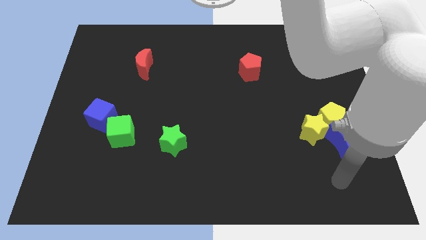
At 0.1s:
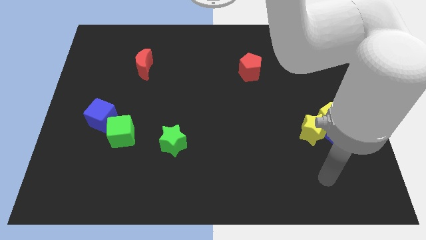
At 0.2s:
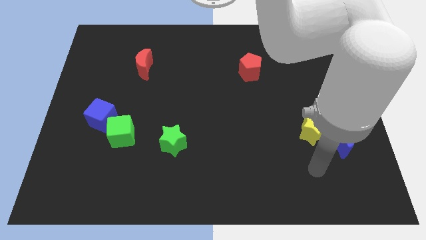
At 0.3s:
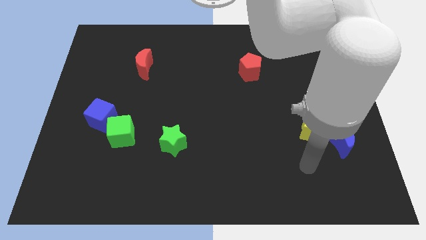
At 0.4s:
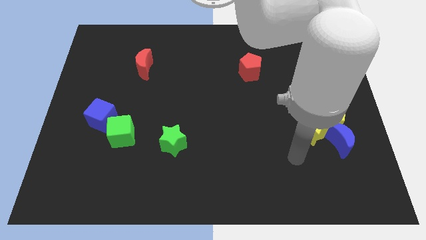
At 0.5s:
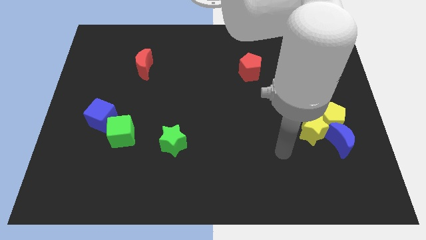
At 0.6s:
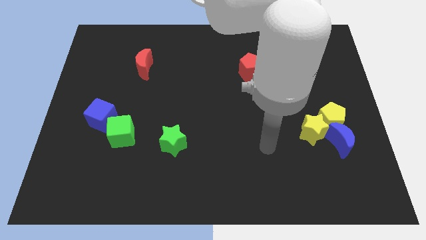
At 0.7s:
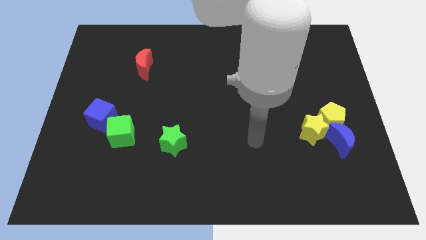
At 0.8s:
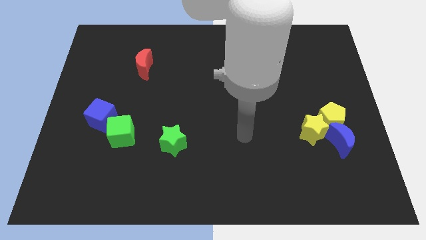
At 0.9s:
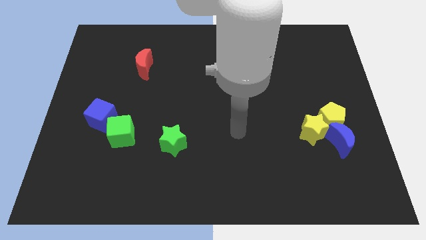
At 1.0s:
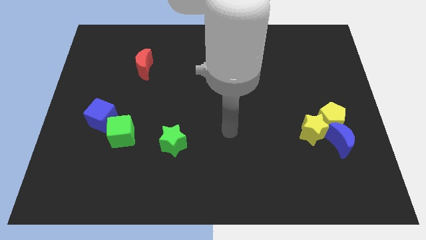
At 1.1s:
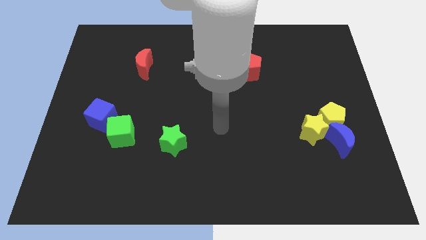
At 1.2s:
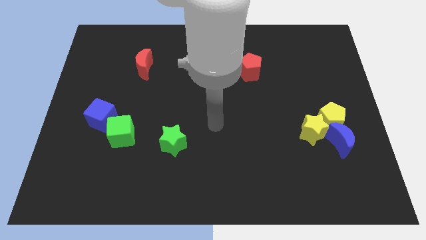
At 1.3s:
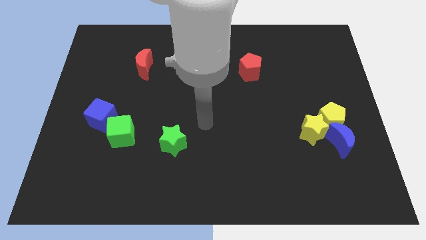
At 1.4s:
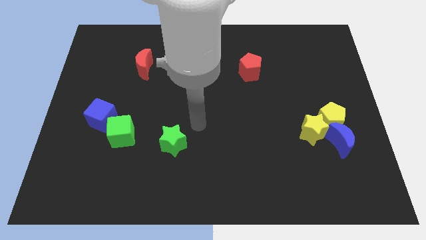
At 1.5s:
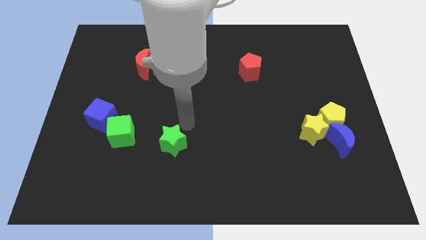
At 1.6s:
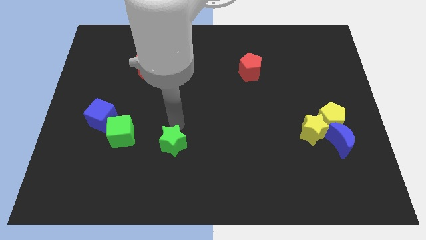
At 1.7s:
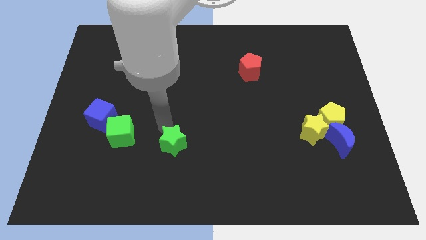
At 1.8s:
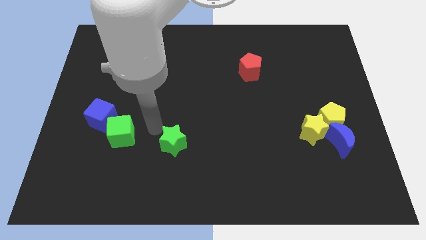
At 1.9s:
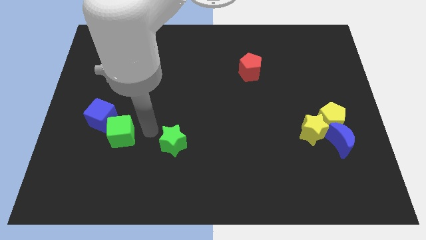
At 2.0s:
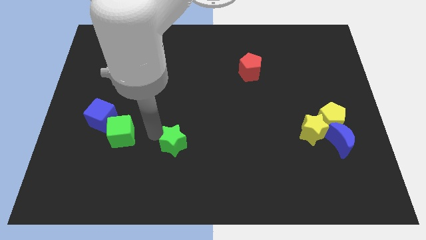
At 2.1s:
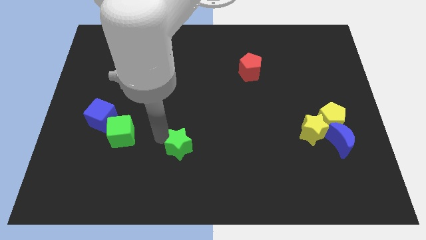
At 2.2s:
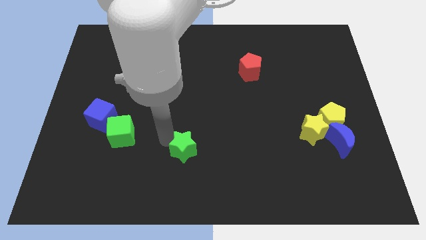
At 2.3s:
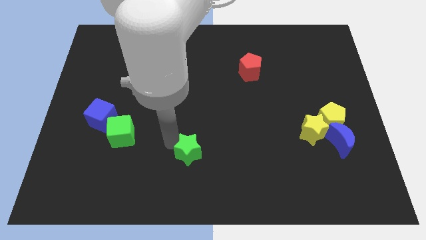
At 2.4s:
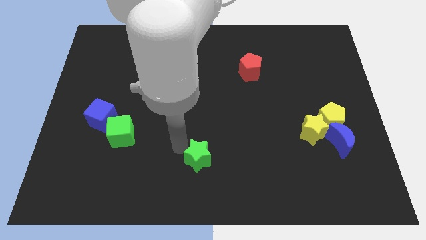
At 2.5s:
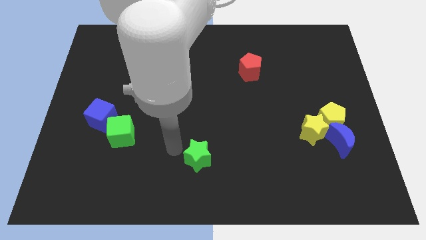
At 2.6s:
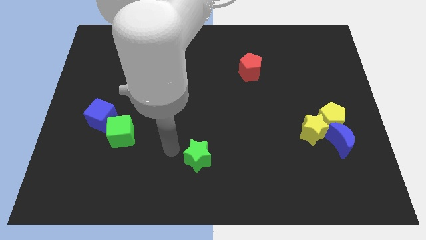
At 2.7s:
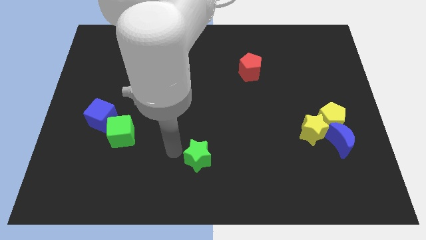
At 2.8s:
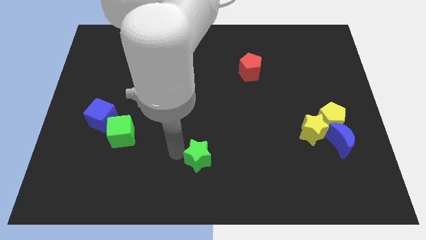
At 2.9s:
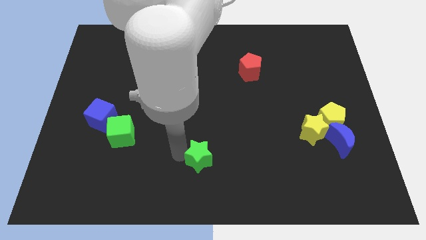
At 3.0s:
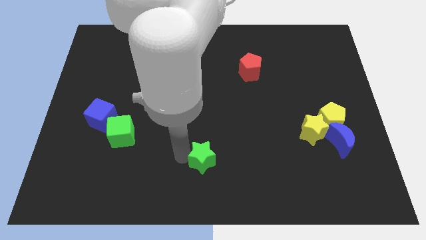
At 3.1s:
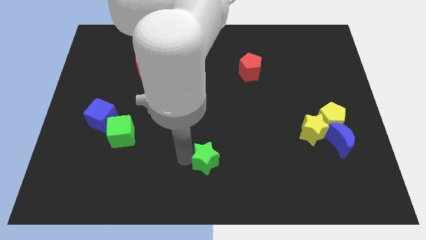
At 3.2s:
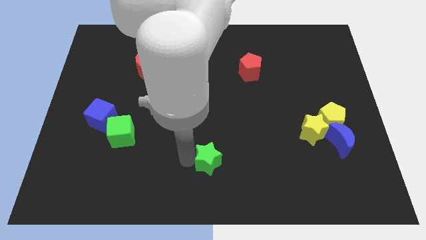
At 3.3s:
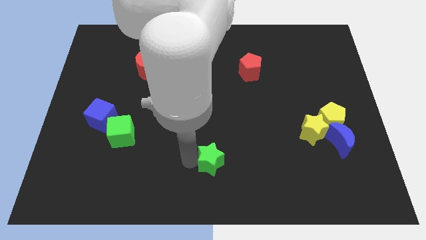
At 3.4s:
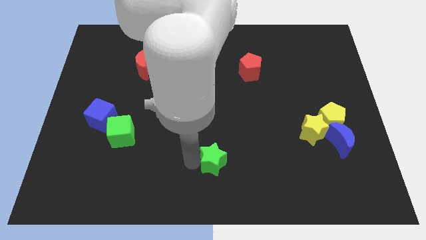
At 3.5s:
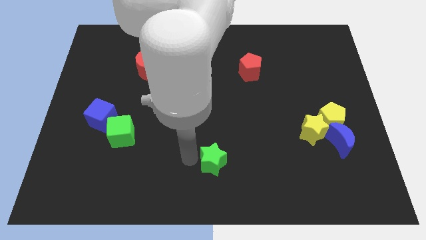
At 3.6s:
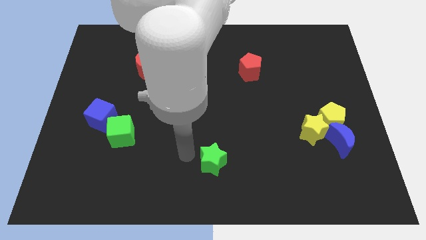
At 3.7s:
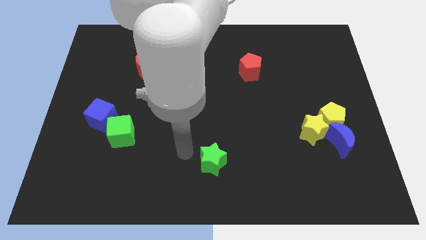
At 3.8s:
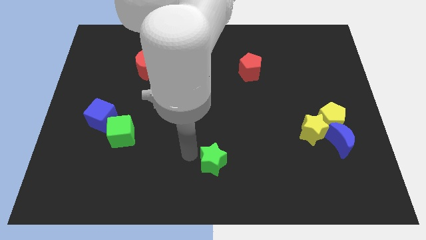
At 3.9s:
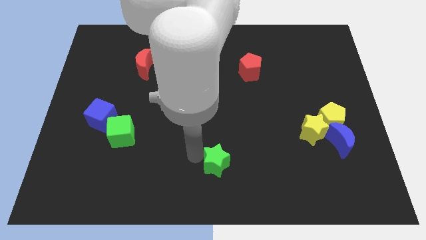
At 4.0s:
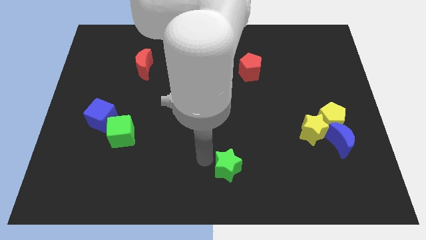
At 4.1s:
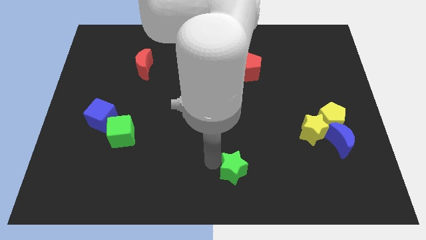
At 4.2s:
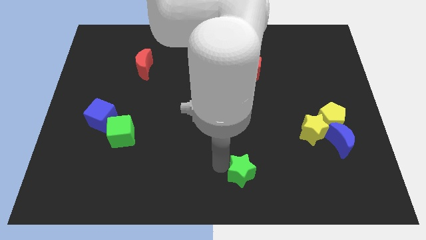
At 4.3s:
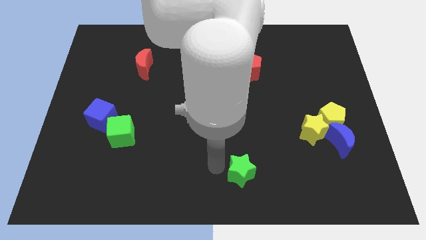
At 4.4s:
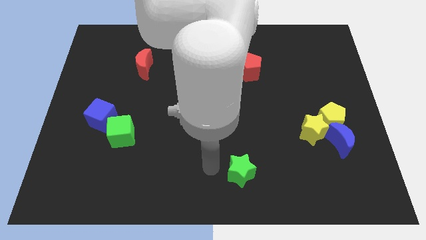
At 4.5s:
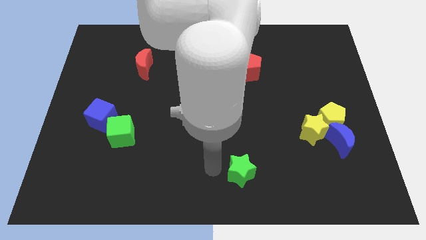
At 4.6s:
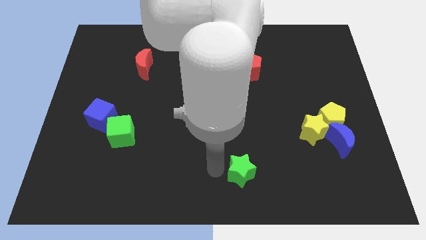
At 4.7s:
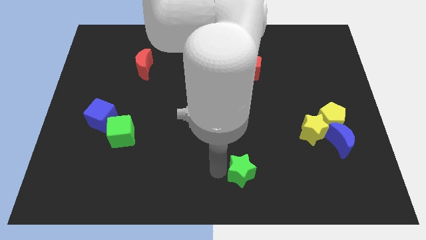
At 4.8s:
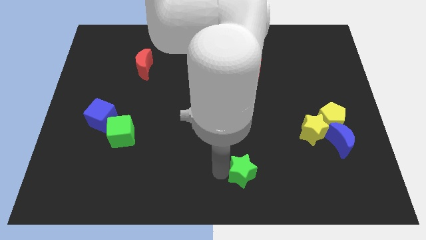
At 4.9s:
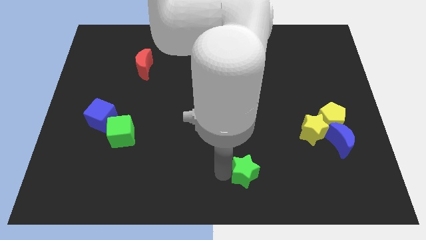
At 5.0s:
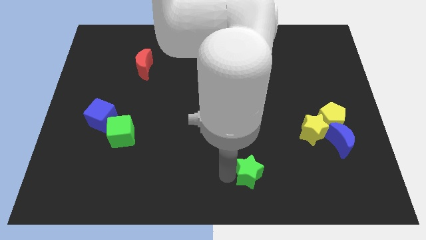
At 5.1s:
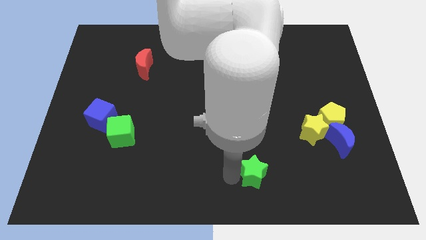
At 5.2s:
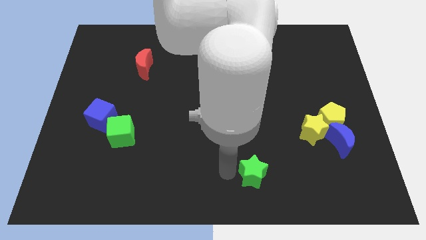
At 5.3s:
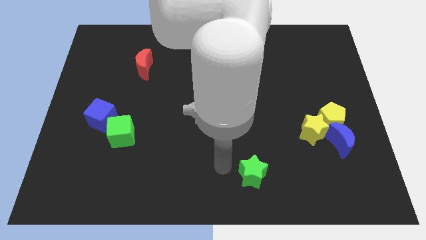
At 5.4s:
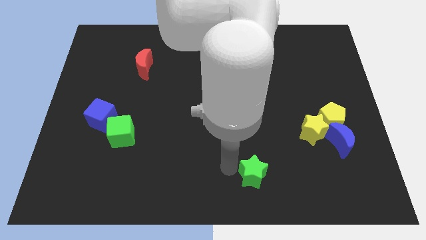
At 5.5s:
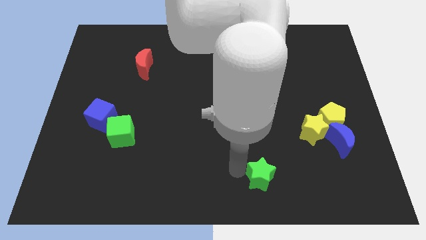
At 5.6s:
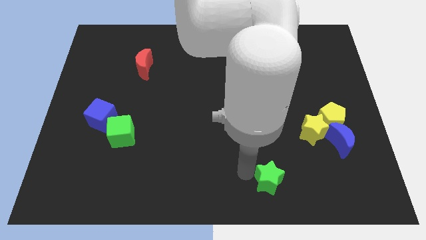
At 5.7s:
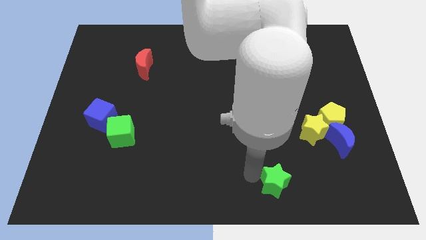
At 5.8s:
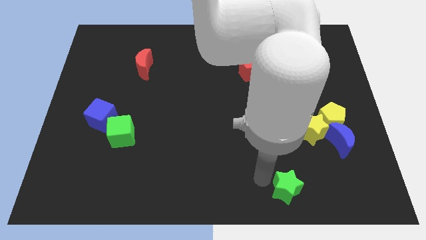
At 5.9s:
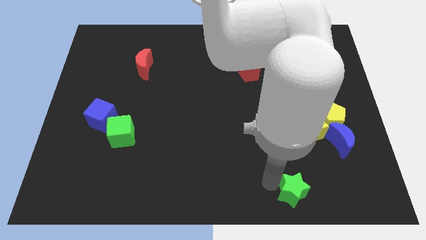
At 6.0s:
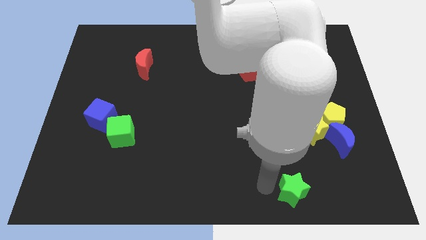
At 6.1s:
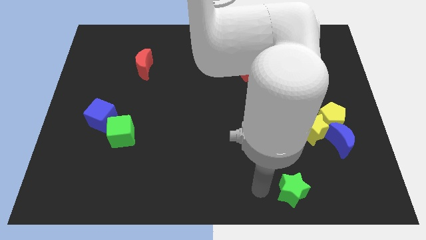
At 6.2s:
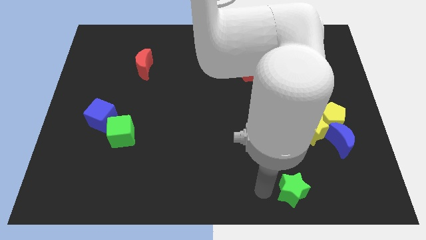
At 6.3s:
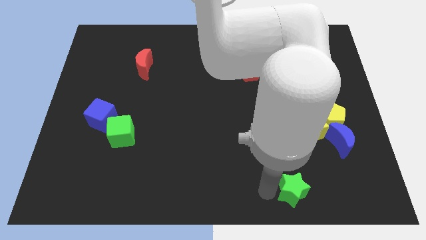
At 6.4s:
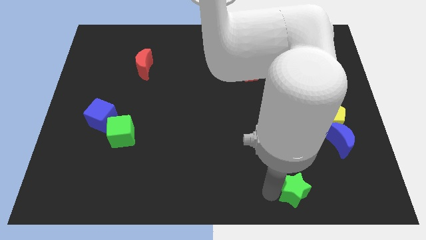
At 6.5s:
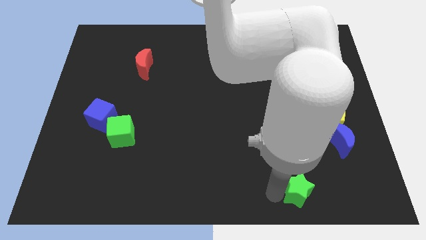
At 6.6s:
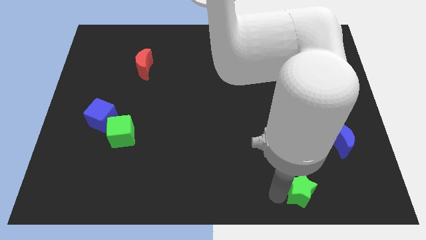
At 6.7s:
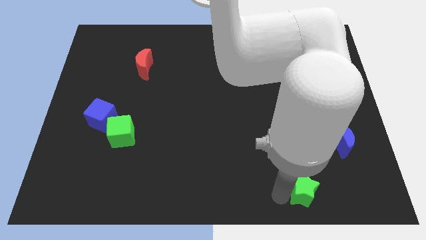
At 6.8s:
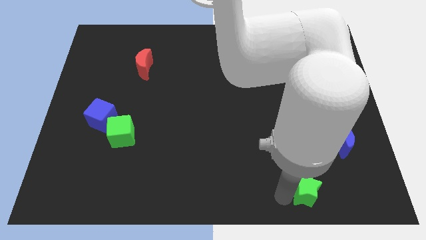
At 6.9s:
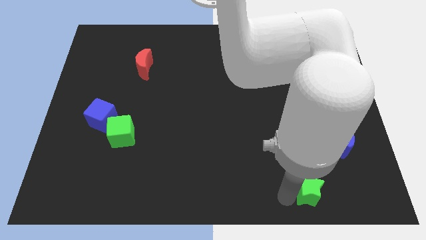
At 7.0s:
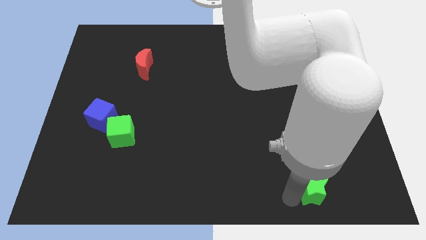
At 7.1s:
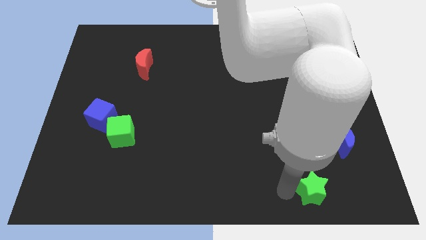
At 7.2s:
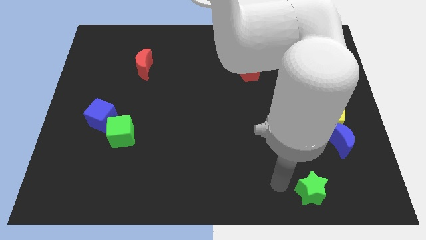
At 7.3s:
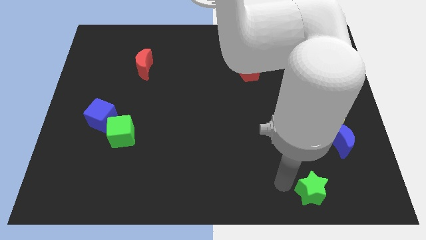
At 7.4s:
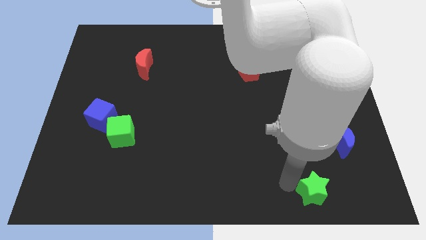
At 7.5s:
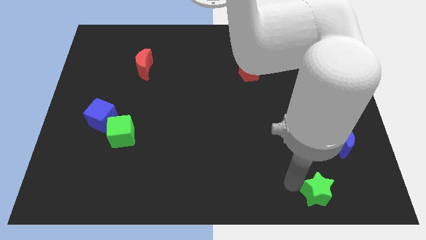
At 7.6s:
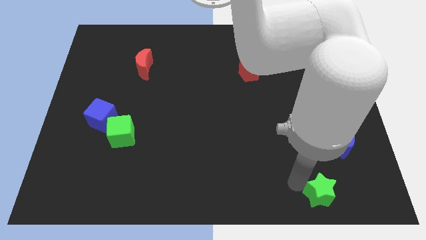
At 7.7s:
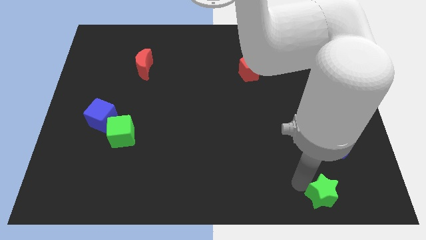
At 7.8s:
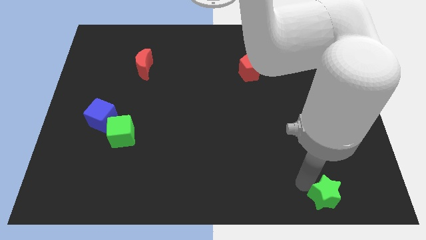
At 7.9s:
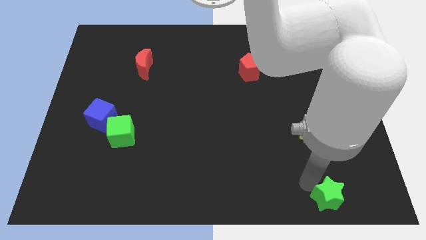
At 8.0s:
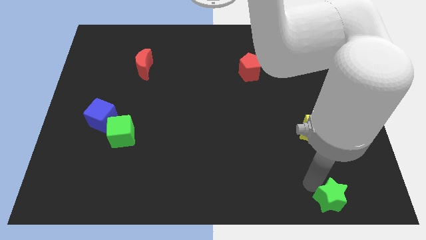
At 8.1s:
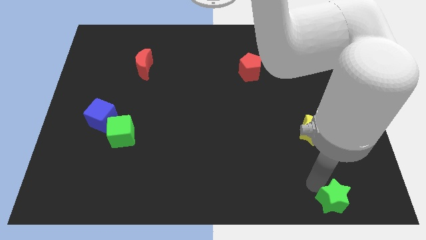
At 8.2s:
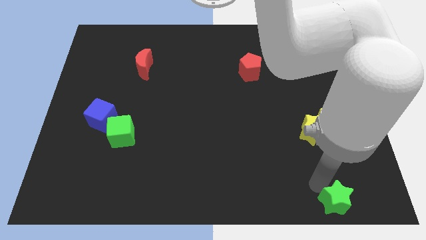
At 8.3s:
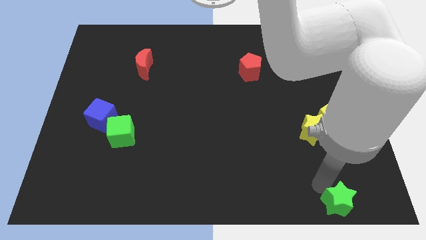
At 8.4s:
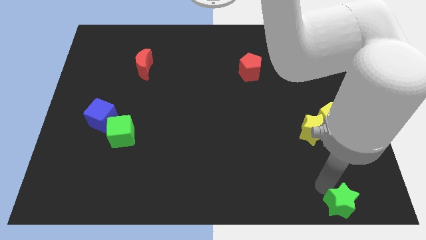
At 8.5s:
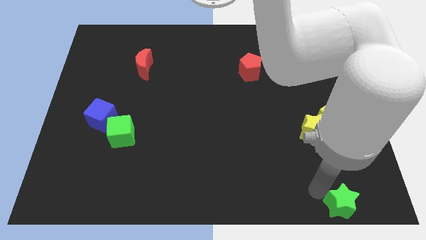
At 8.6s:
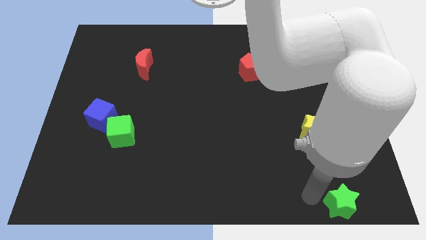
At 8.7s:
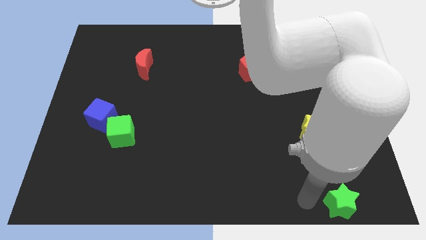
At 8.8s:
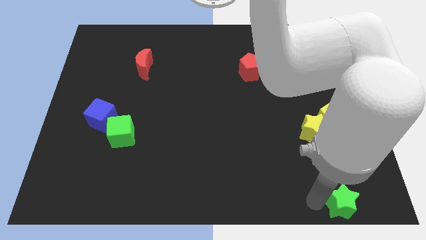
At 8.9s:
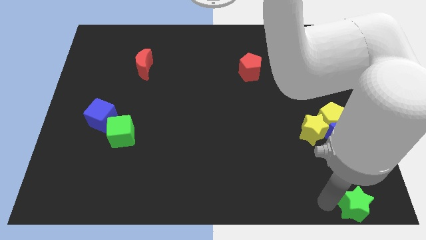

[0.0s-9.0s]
put the green star to the bottom right corner
